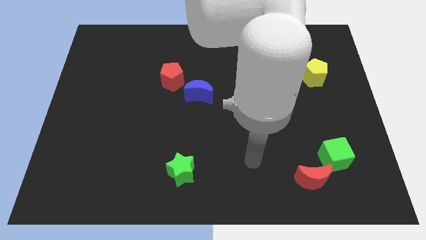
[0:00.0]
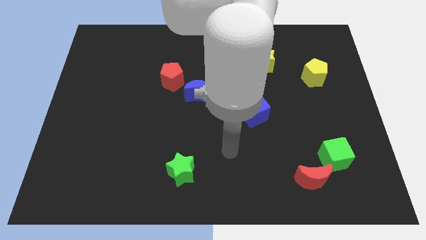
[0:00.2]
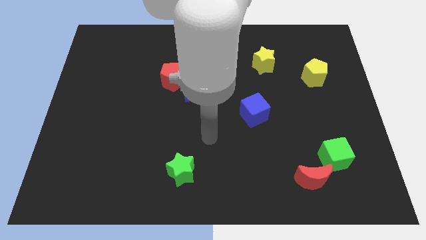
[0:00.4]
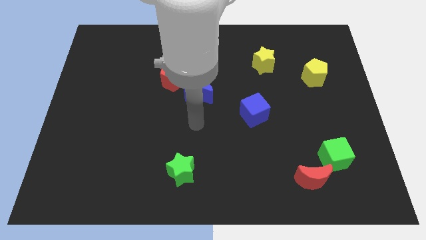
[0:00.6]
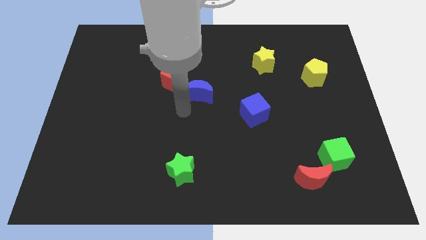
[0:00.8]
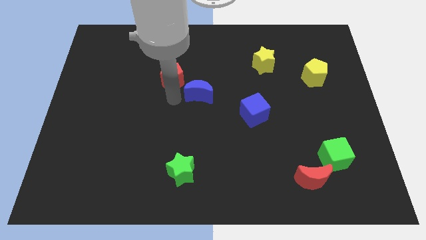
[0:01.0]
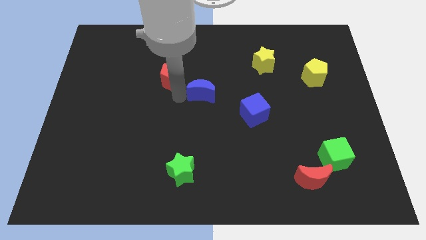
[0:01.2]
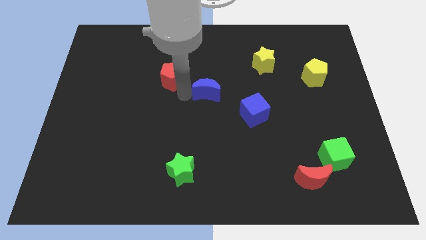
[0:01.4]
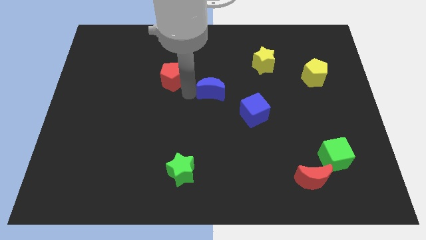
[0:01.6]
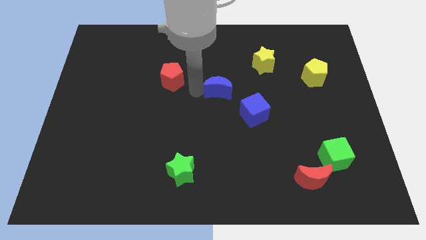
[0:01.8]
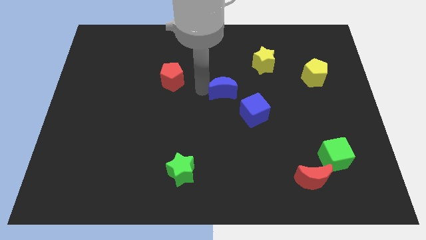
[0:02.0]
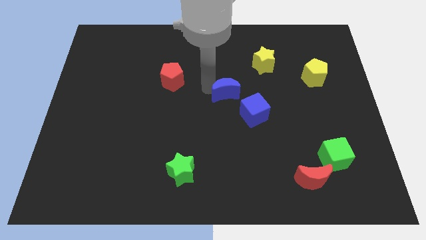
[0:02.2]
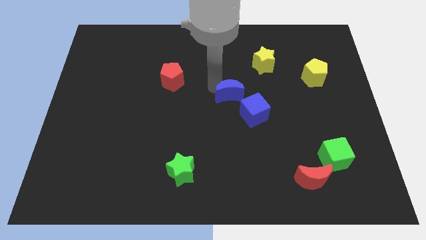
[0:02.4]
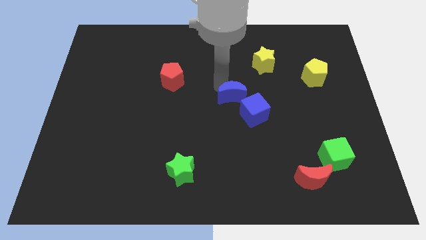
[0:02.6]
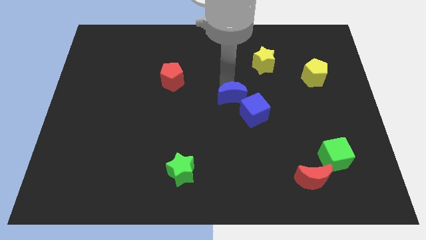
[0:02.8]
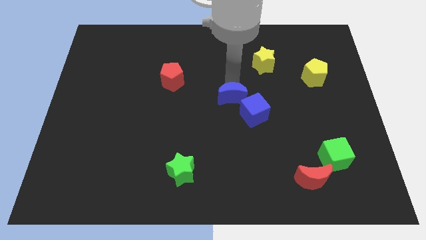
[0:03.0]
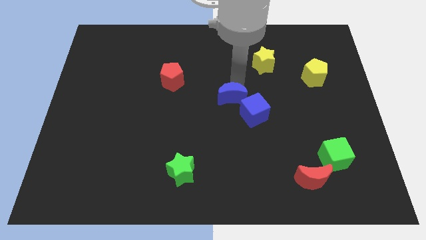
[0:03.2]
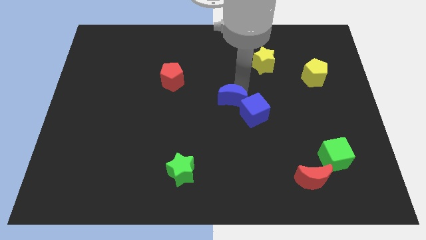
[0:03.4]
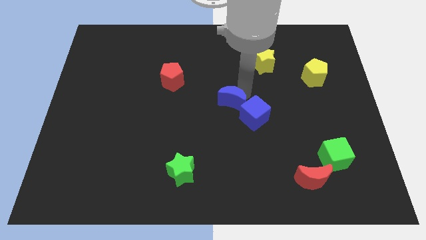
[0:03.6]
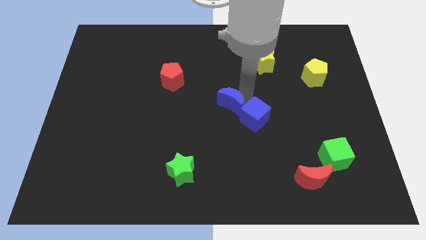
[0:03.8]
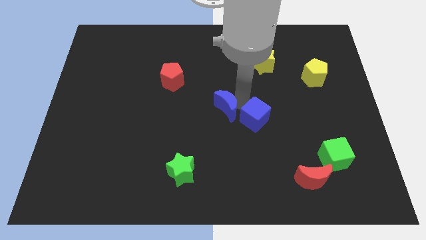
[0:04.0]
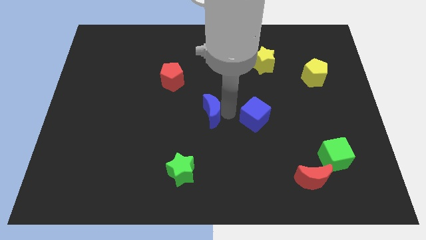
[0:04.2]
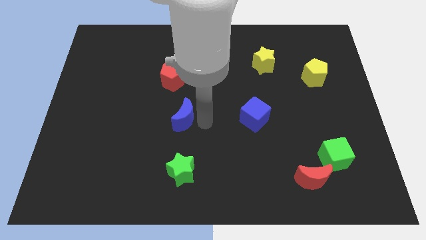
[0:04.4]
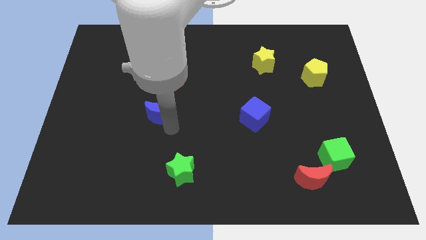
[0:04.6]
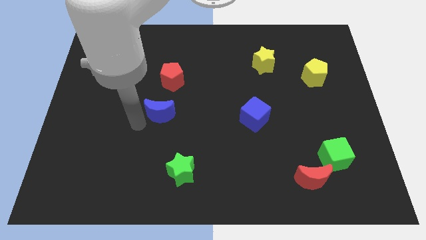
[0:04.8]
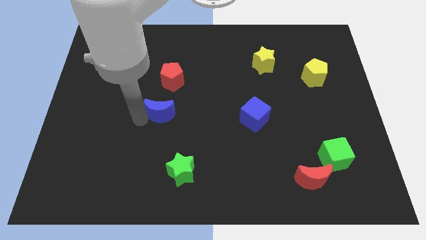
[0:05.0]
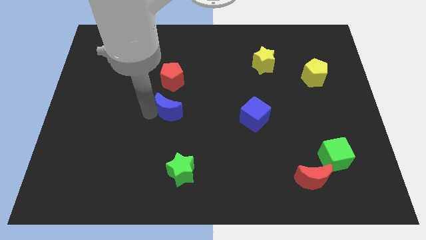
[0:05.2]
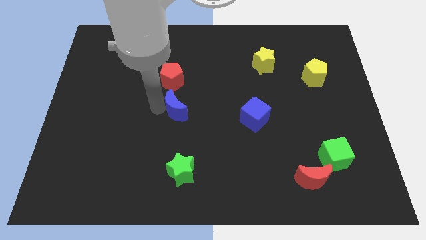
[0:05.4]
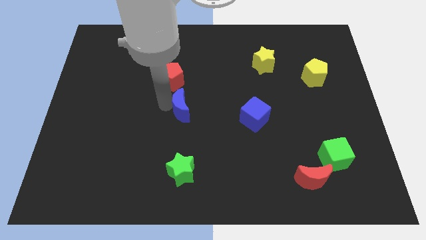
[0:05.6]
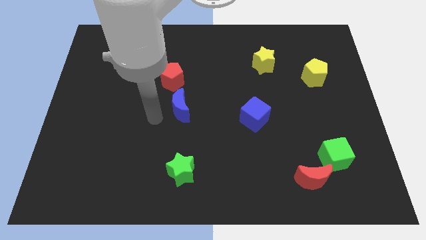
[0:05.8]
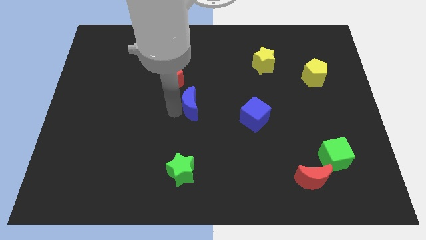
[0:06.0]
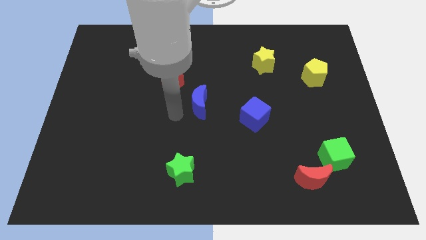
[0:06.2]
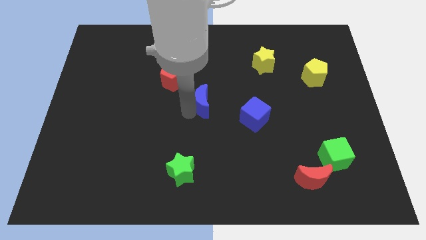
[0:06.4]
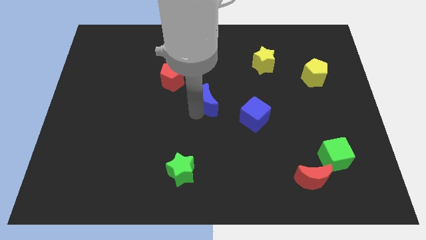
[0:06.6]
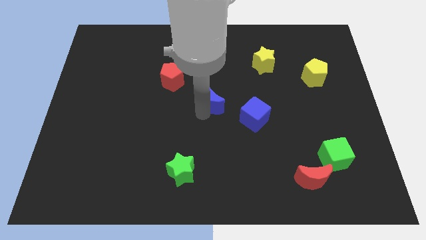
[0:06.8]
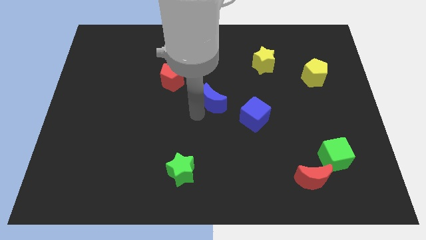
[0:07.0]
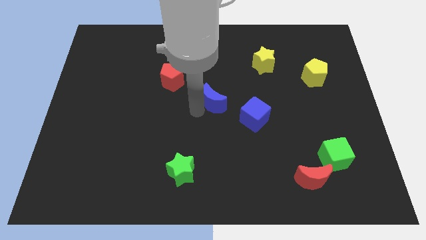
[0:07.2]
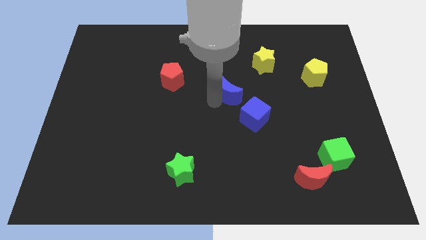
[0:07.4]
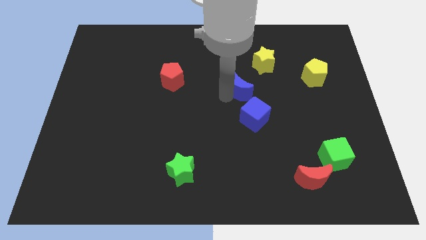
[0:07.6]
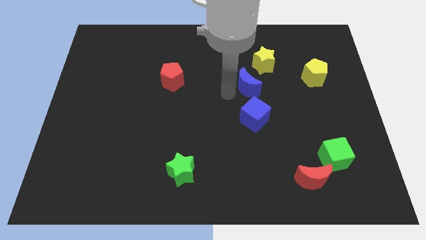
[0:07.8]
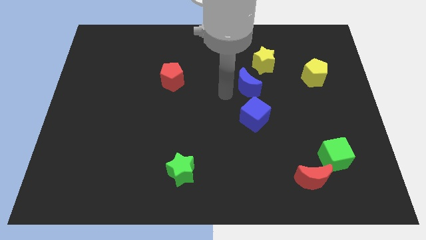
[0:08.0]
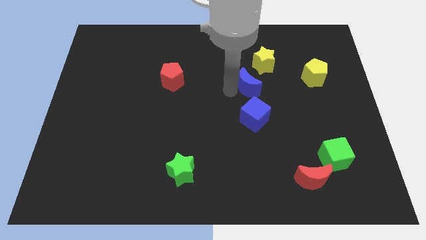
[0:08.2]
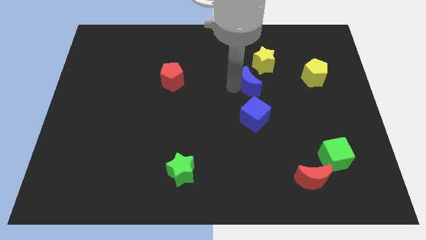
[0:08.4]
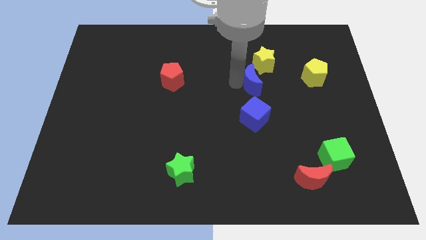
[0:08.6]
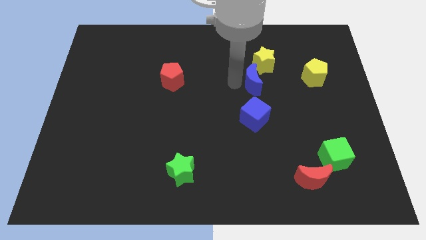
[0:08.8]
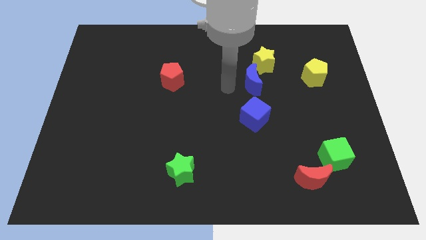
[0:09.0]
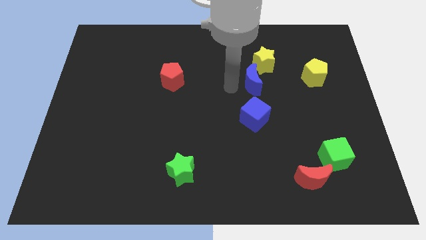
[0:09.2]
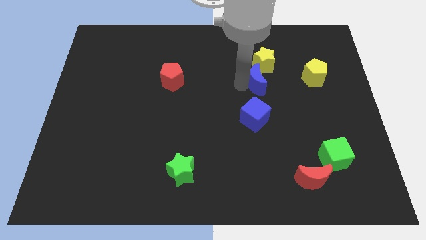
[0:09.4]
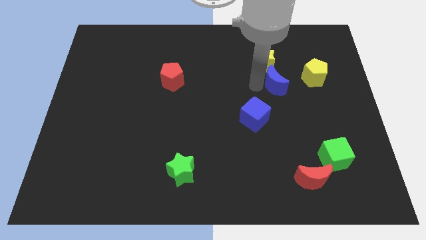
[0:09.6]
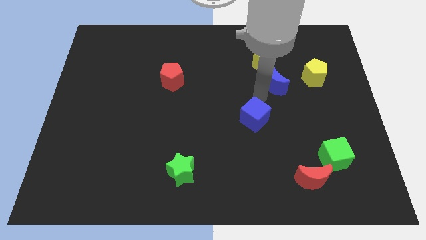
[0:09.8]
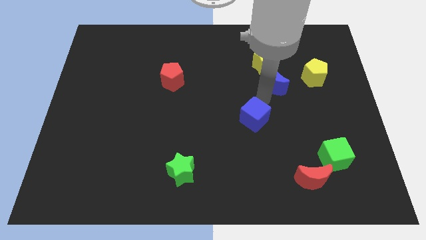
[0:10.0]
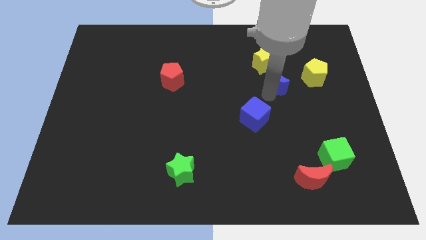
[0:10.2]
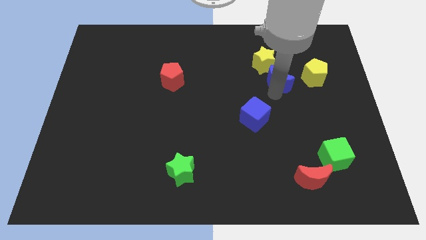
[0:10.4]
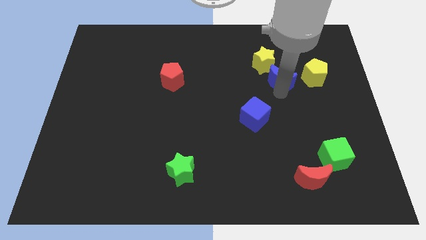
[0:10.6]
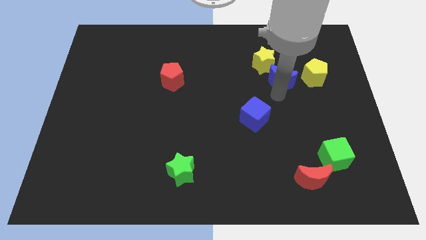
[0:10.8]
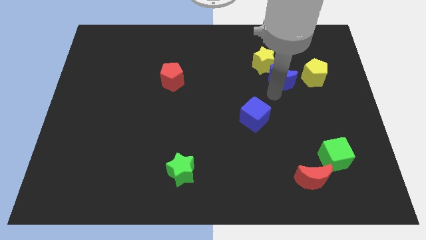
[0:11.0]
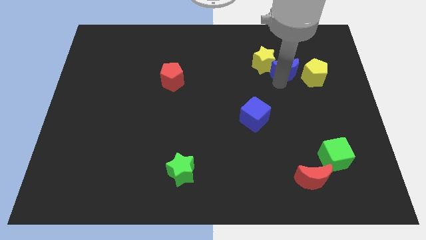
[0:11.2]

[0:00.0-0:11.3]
put the blue moon to the top left side of the yellow pentagon

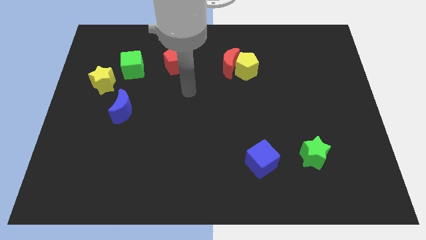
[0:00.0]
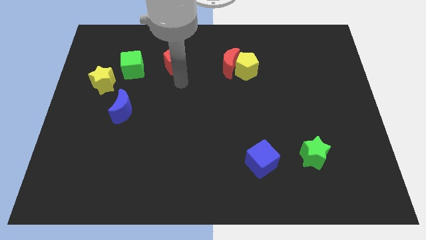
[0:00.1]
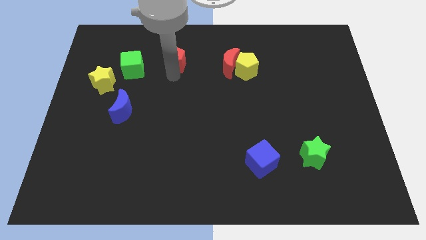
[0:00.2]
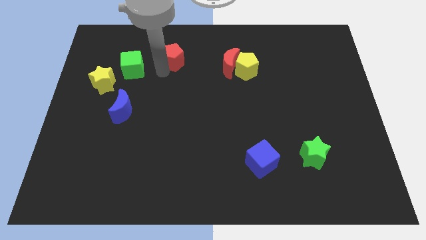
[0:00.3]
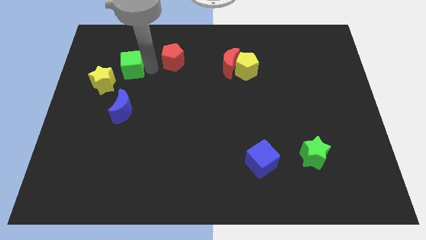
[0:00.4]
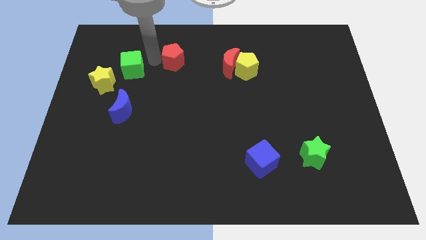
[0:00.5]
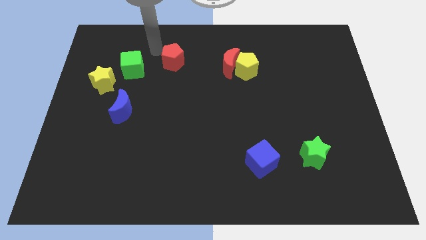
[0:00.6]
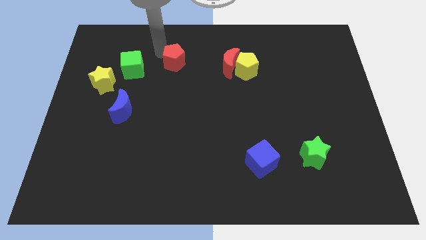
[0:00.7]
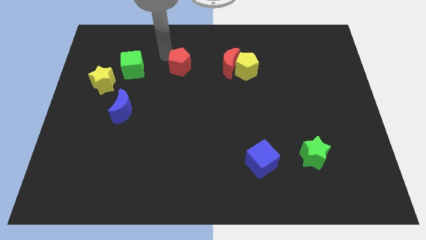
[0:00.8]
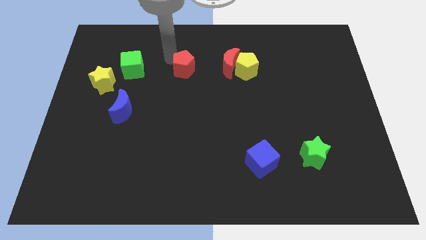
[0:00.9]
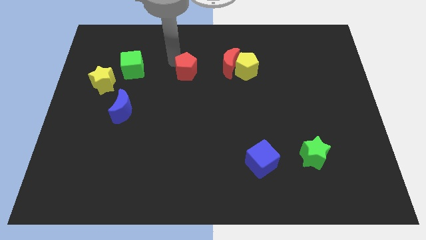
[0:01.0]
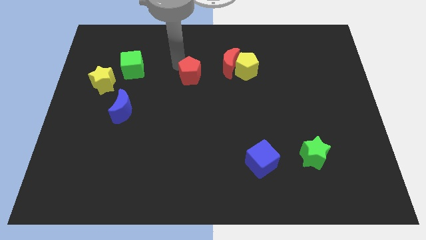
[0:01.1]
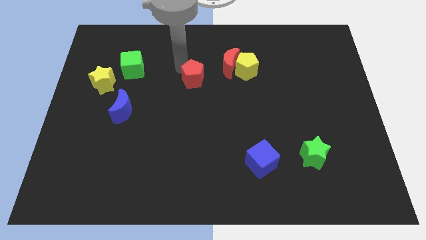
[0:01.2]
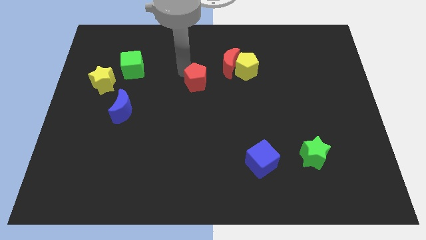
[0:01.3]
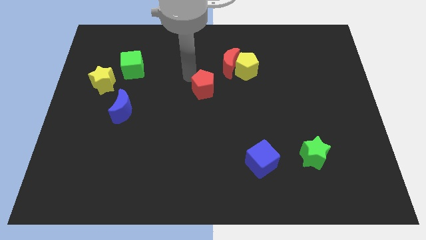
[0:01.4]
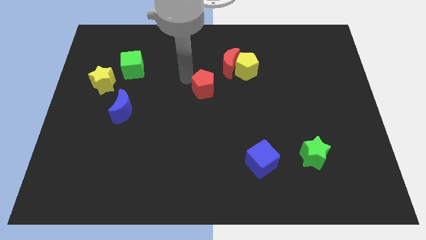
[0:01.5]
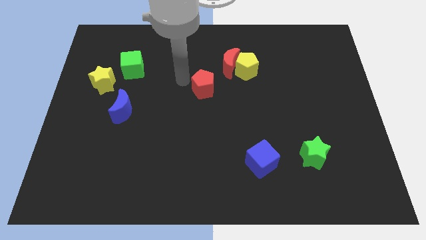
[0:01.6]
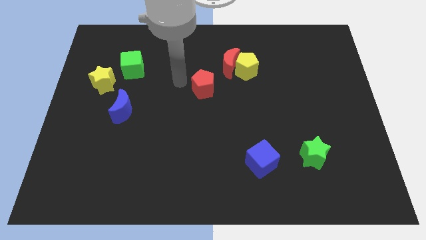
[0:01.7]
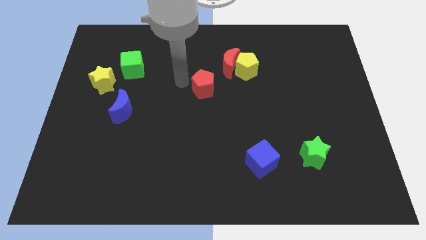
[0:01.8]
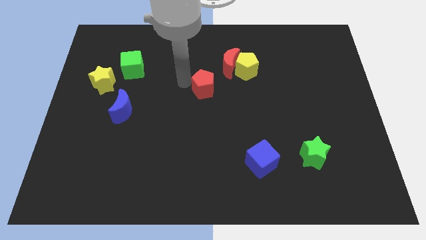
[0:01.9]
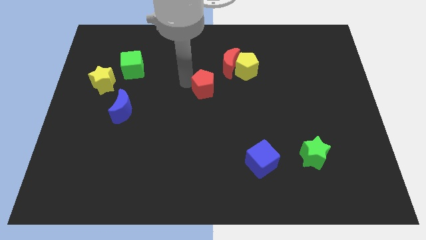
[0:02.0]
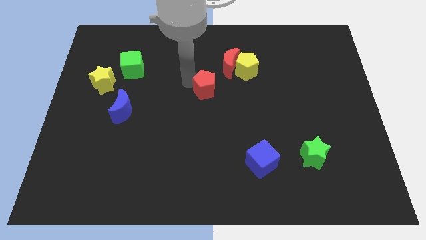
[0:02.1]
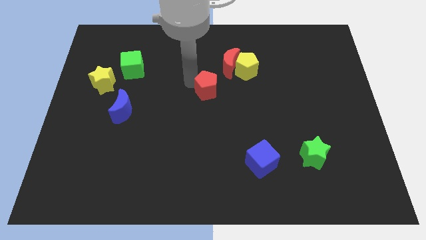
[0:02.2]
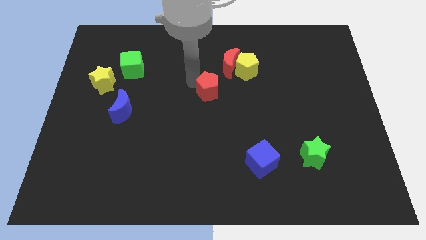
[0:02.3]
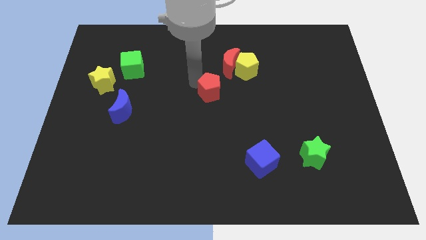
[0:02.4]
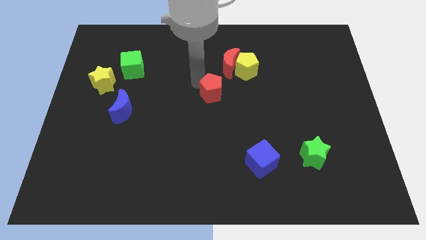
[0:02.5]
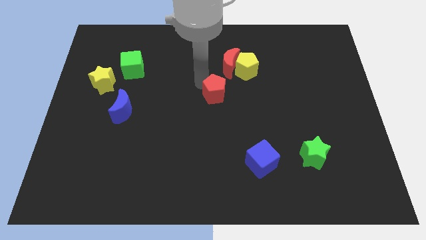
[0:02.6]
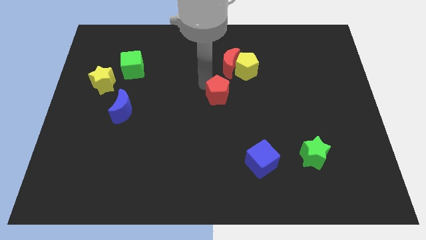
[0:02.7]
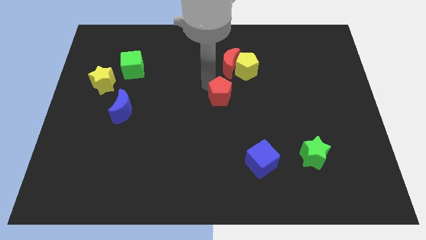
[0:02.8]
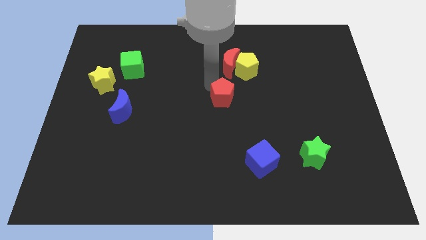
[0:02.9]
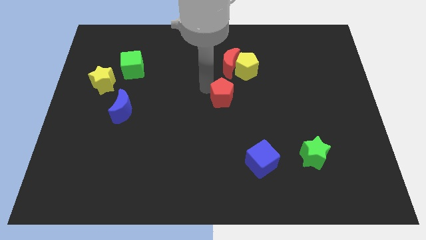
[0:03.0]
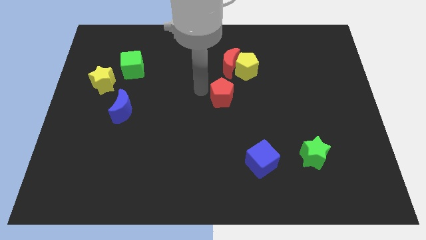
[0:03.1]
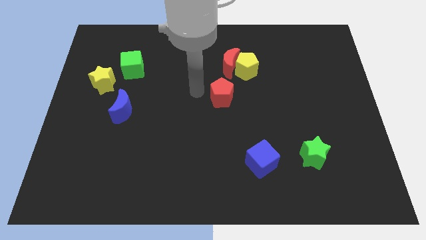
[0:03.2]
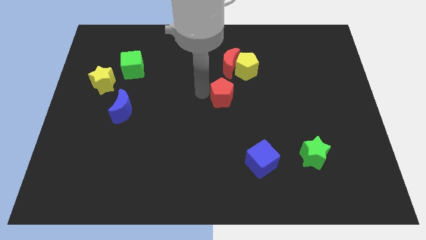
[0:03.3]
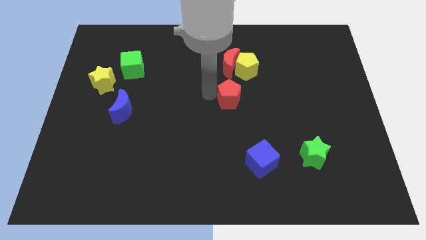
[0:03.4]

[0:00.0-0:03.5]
put the red pentagon to the bottom of the yellow pentagon
